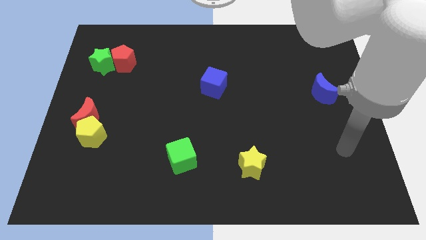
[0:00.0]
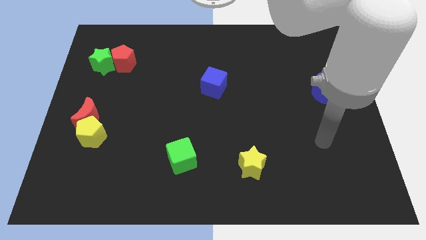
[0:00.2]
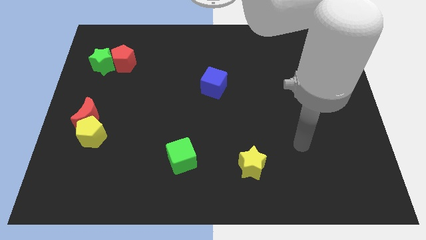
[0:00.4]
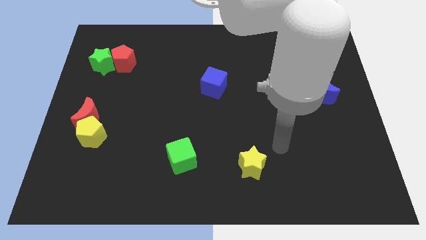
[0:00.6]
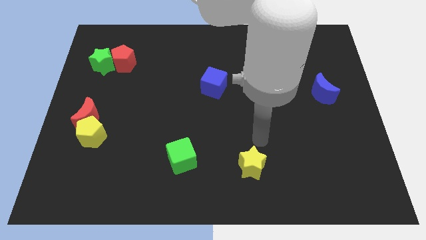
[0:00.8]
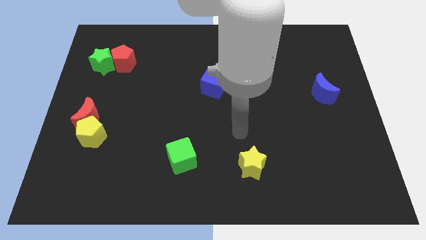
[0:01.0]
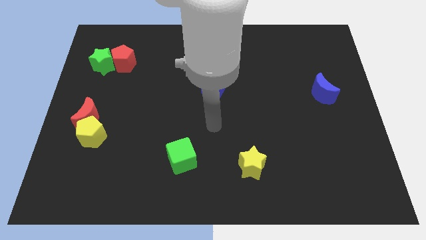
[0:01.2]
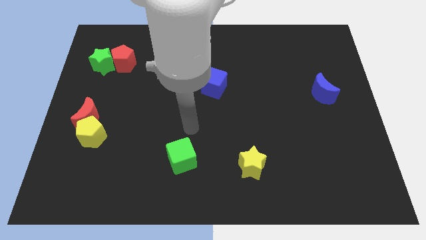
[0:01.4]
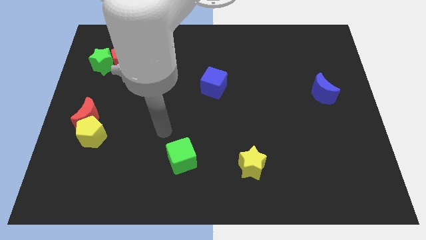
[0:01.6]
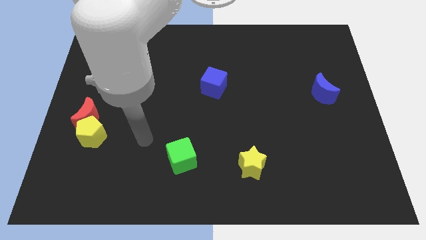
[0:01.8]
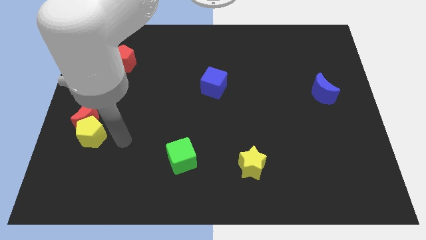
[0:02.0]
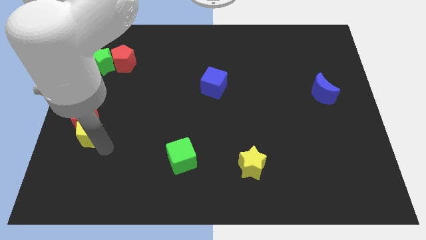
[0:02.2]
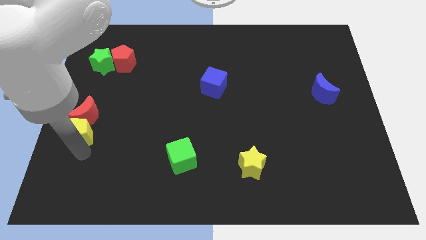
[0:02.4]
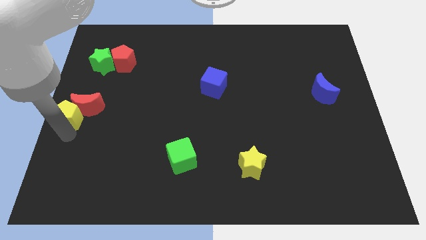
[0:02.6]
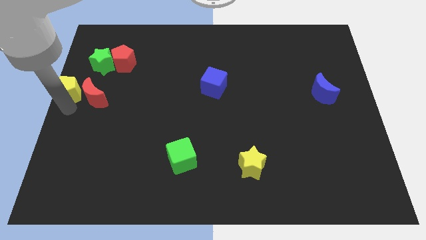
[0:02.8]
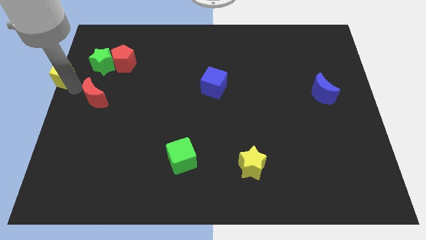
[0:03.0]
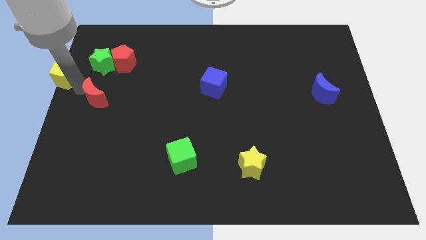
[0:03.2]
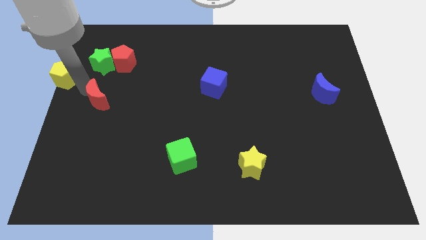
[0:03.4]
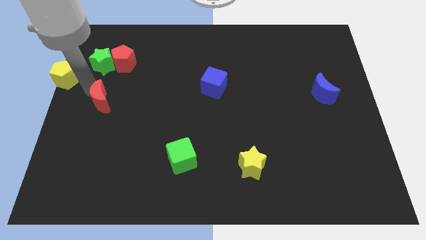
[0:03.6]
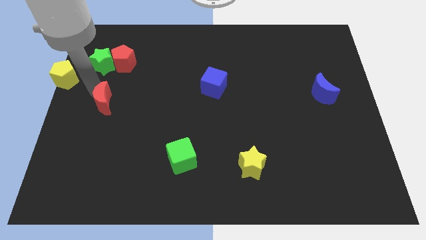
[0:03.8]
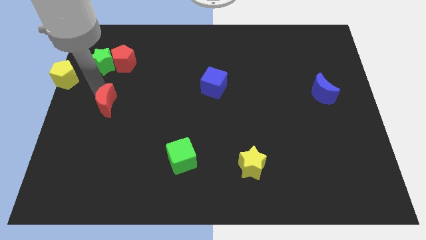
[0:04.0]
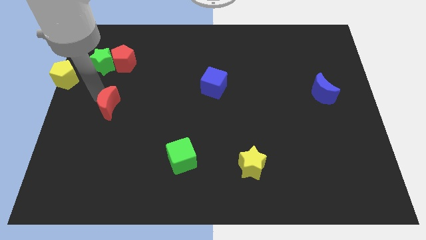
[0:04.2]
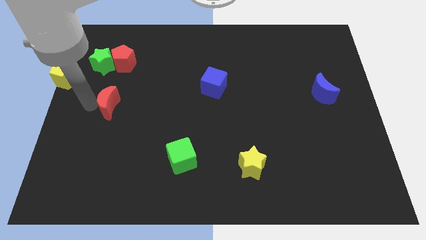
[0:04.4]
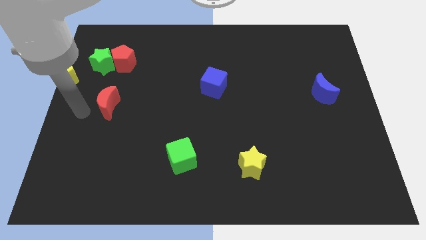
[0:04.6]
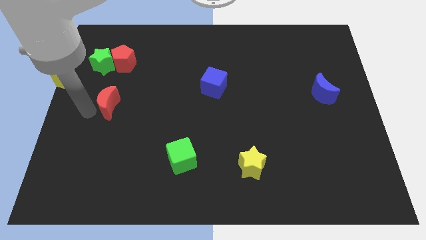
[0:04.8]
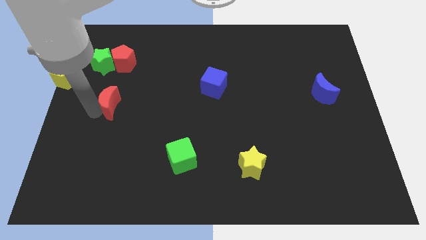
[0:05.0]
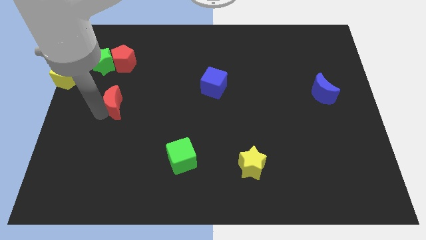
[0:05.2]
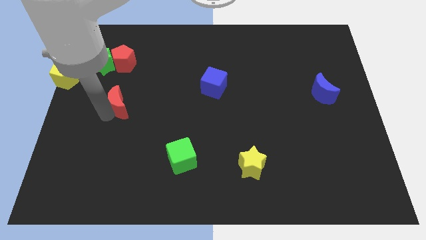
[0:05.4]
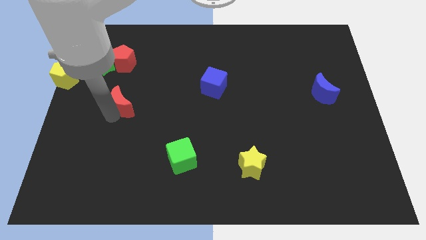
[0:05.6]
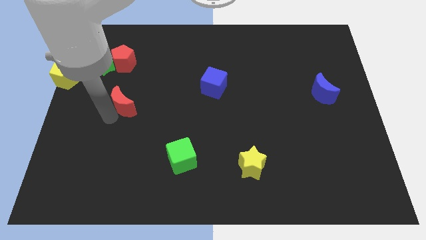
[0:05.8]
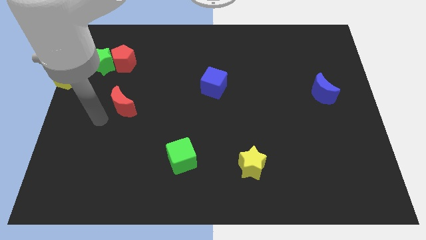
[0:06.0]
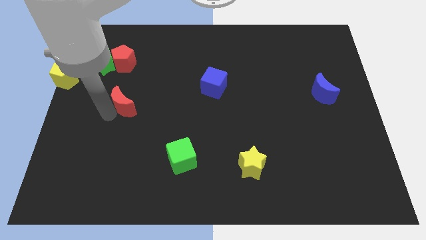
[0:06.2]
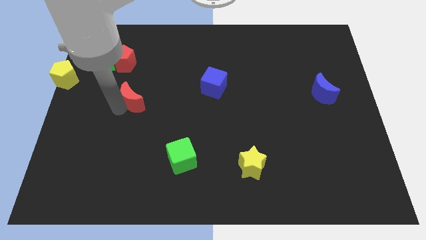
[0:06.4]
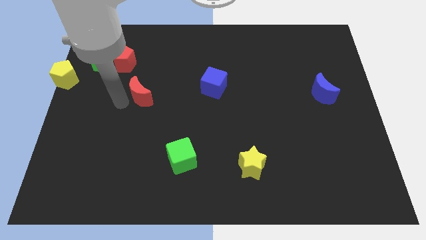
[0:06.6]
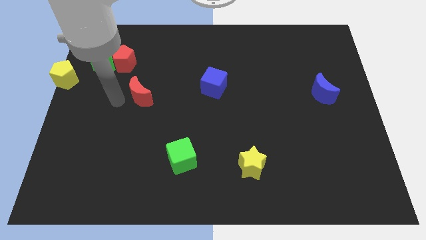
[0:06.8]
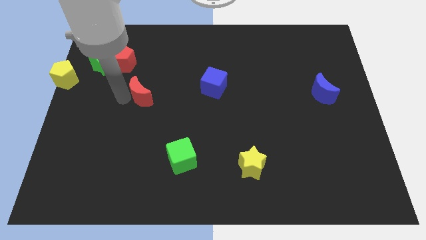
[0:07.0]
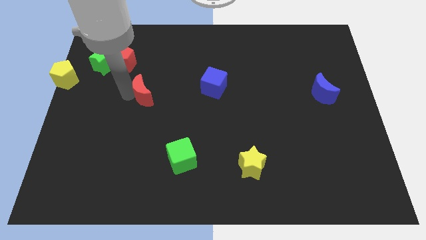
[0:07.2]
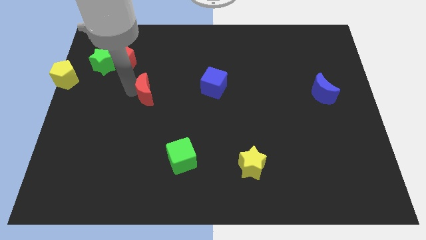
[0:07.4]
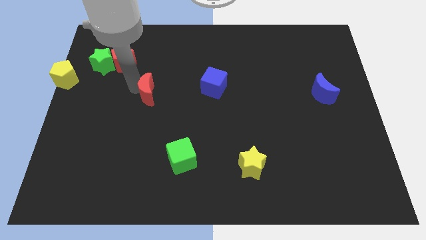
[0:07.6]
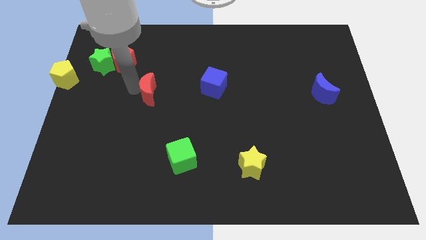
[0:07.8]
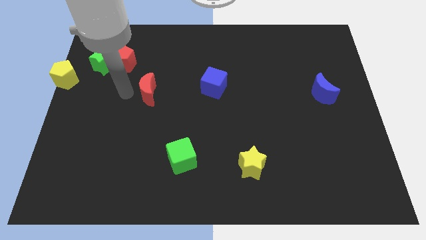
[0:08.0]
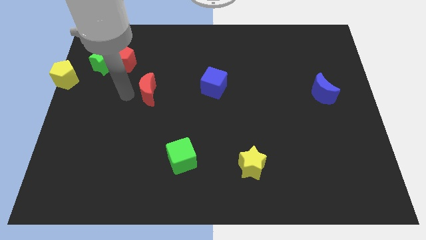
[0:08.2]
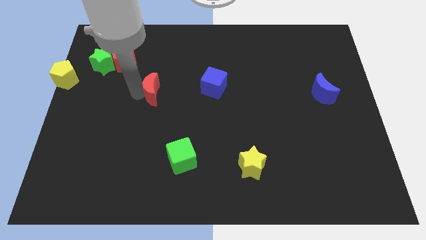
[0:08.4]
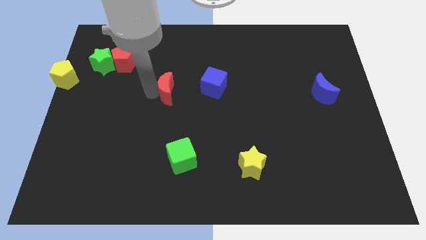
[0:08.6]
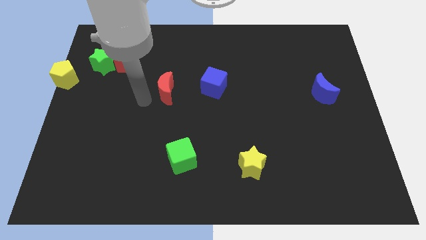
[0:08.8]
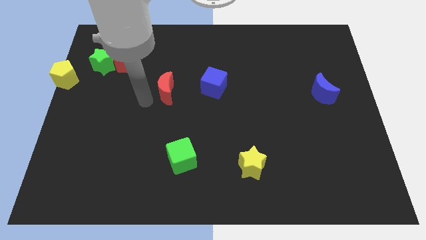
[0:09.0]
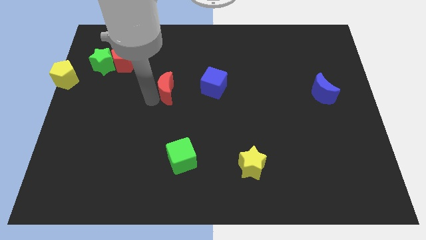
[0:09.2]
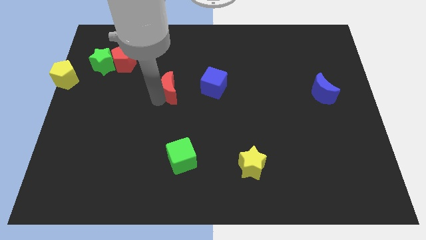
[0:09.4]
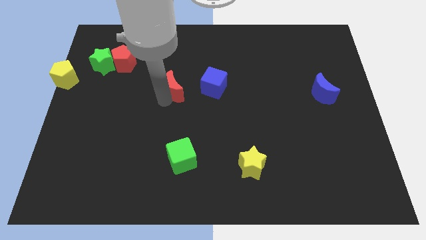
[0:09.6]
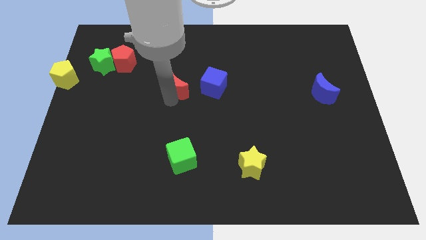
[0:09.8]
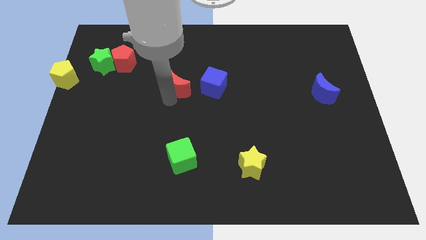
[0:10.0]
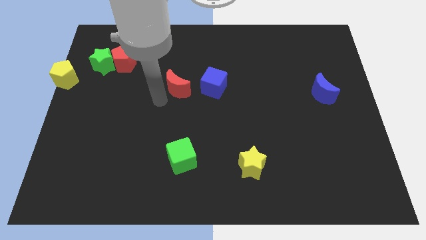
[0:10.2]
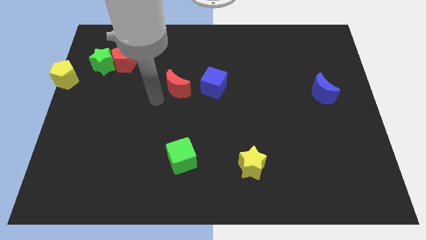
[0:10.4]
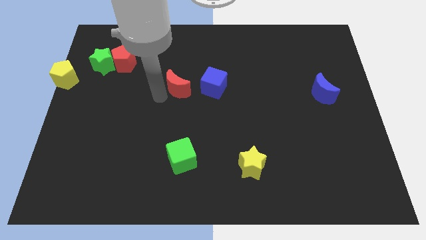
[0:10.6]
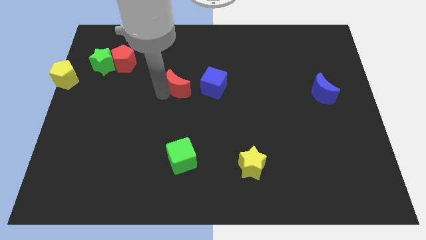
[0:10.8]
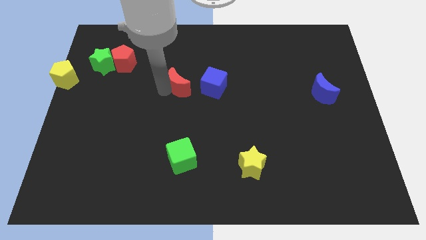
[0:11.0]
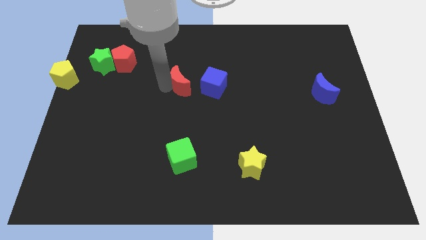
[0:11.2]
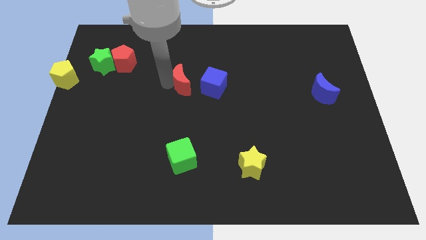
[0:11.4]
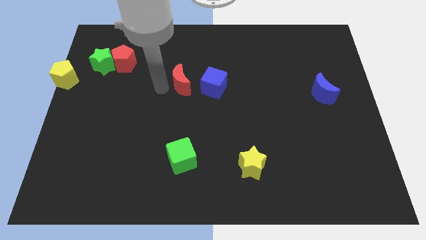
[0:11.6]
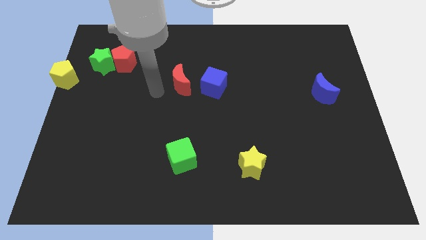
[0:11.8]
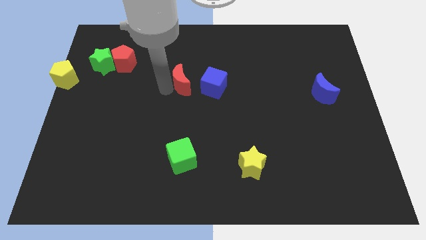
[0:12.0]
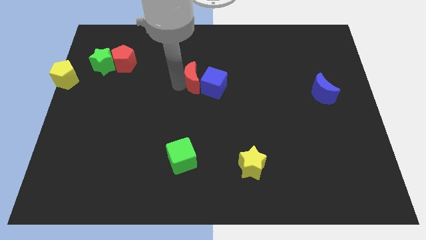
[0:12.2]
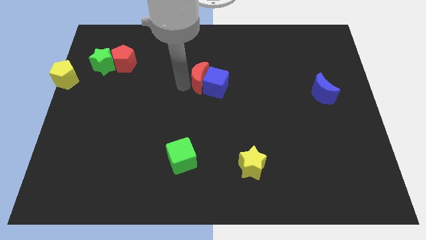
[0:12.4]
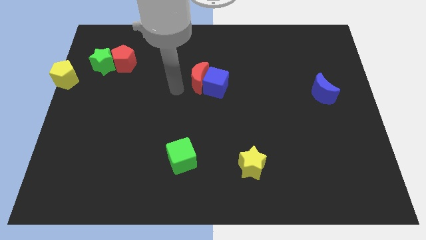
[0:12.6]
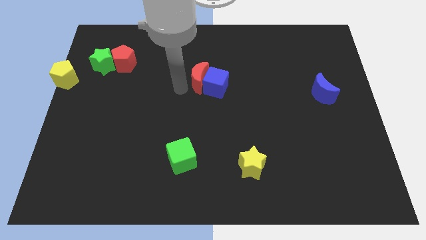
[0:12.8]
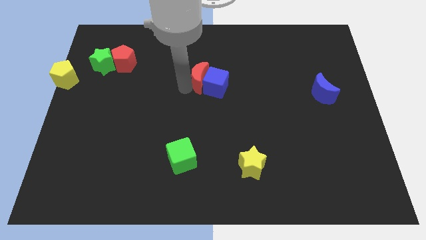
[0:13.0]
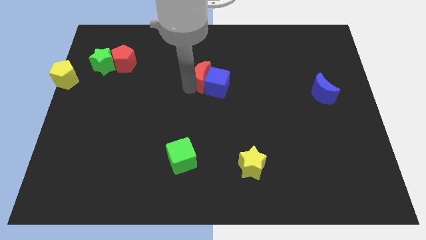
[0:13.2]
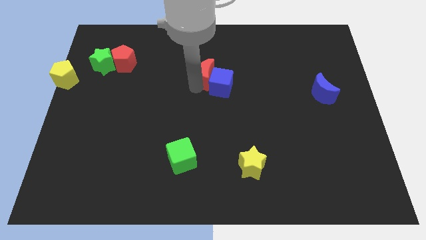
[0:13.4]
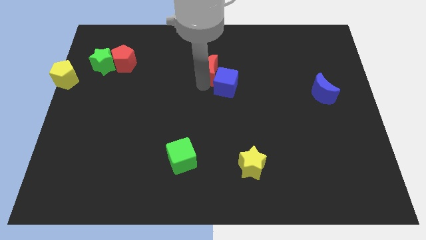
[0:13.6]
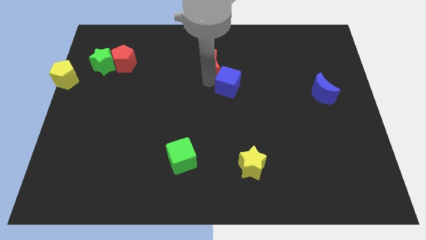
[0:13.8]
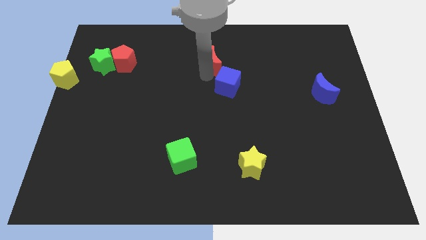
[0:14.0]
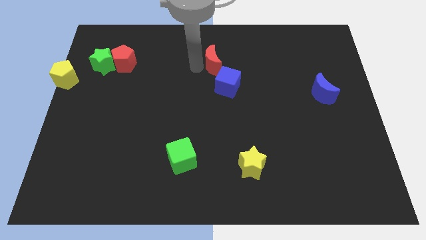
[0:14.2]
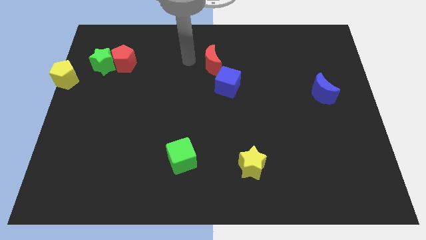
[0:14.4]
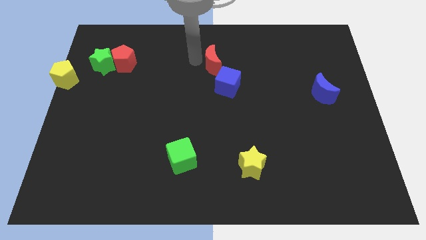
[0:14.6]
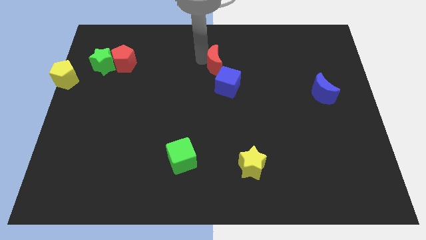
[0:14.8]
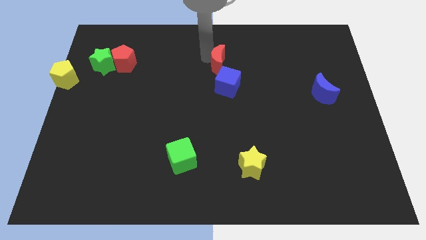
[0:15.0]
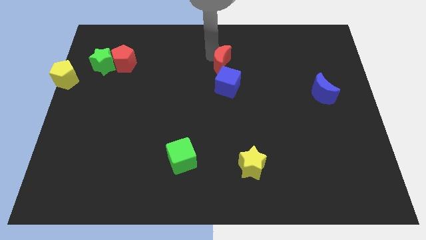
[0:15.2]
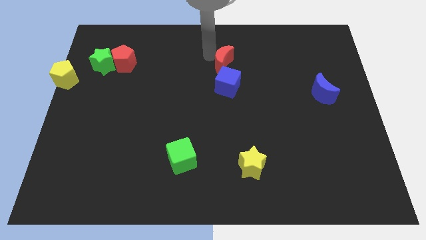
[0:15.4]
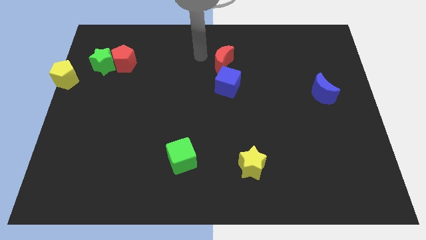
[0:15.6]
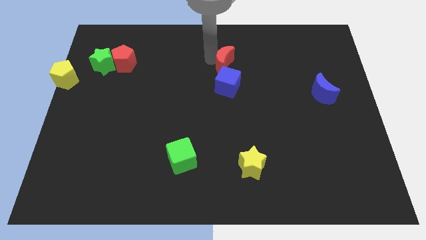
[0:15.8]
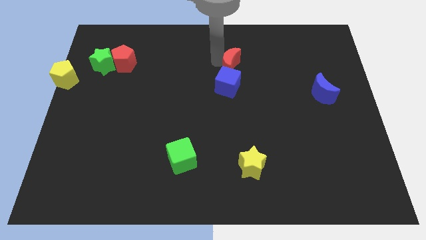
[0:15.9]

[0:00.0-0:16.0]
put the red moon to the top right of the blue cube
